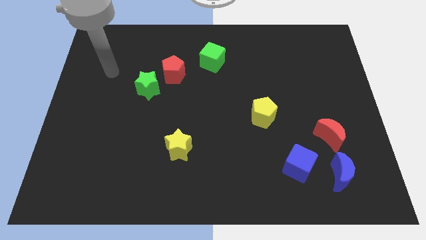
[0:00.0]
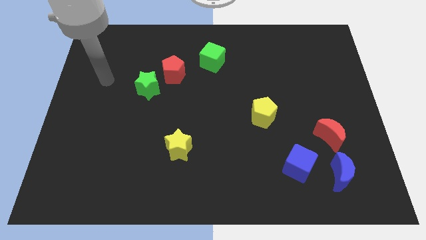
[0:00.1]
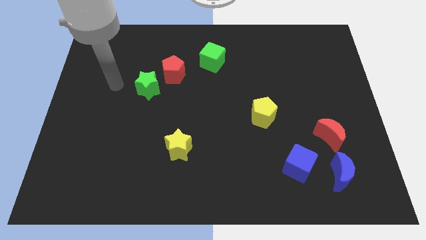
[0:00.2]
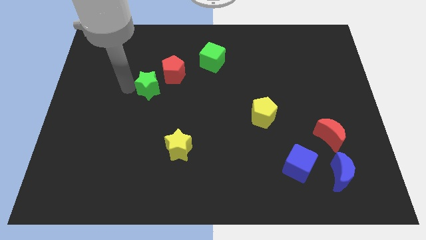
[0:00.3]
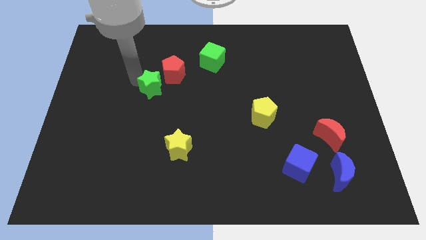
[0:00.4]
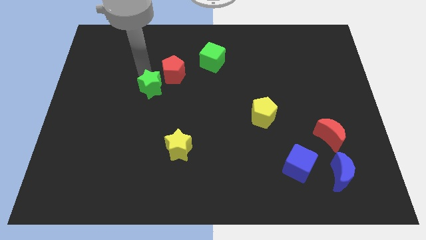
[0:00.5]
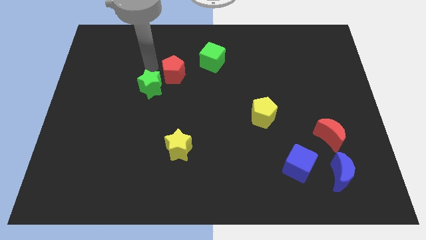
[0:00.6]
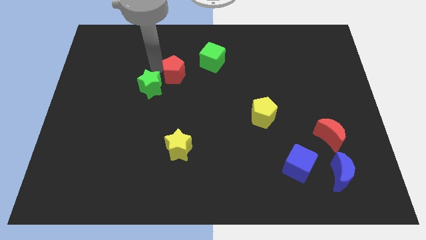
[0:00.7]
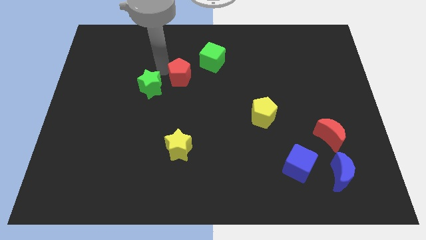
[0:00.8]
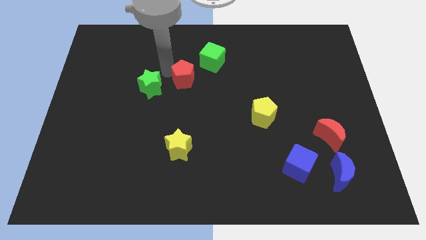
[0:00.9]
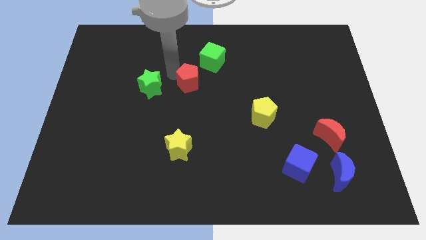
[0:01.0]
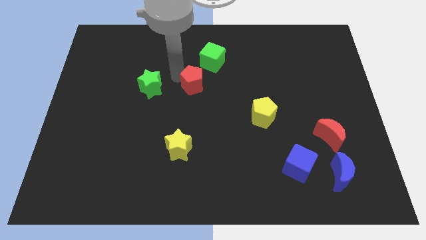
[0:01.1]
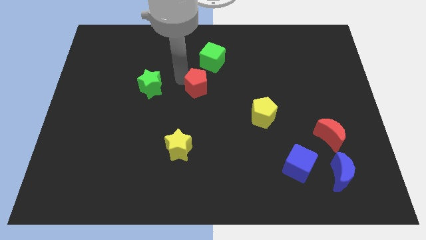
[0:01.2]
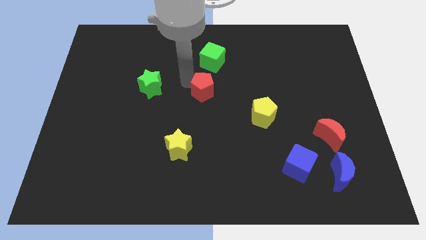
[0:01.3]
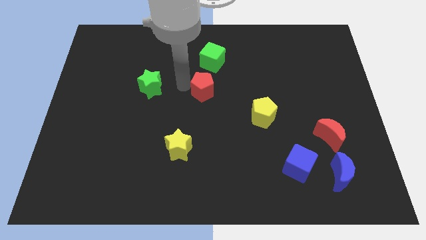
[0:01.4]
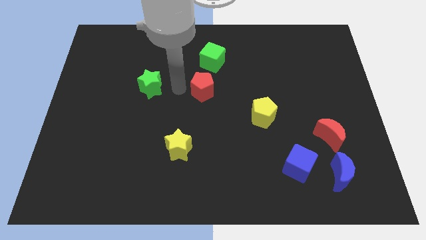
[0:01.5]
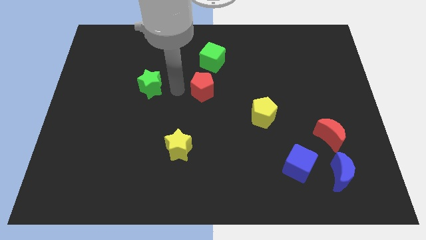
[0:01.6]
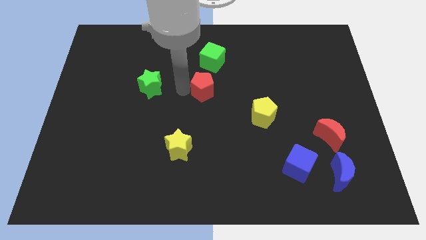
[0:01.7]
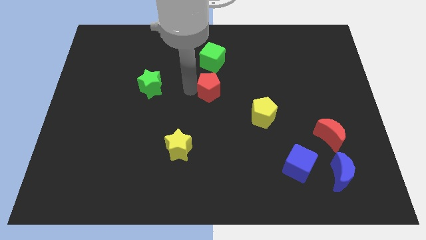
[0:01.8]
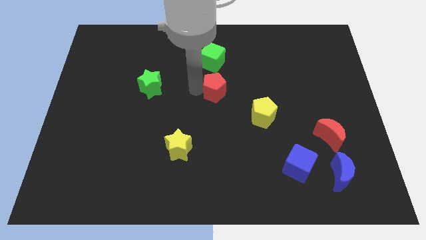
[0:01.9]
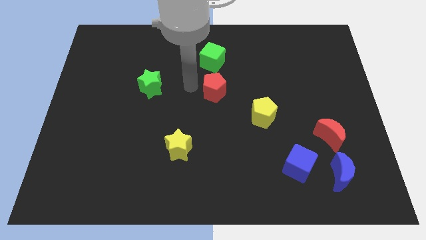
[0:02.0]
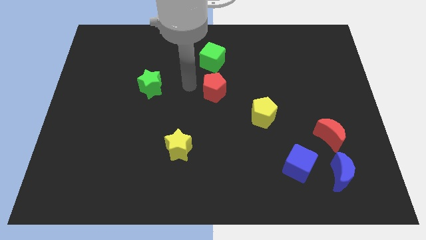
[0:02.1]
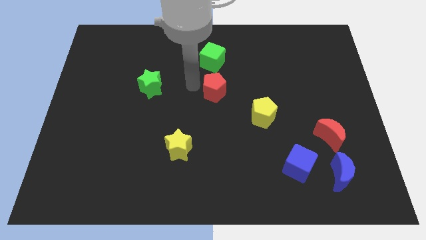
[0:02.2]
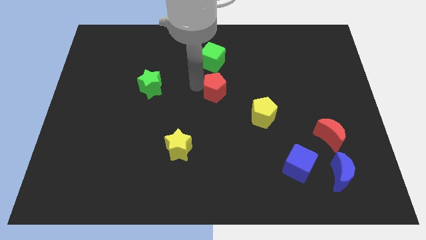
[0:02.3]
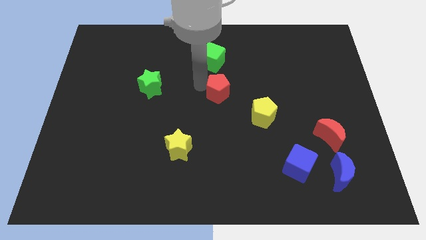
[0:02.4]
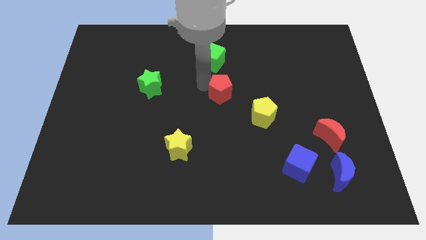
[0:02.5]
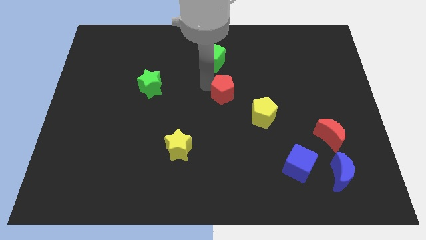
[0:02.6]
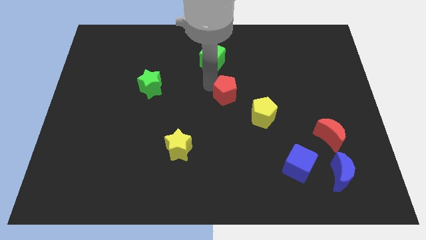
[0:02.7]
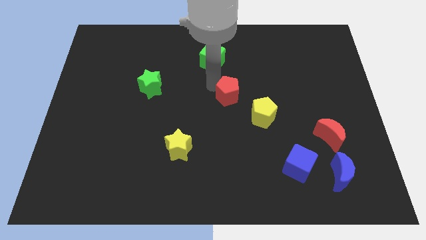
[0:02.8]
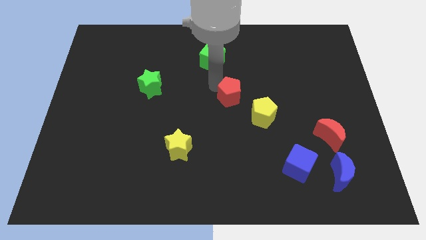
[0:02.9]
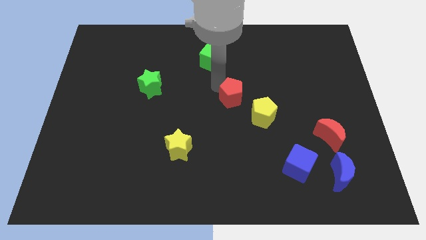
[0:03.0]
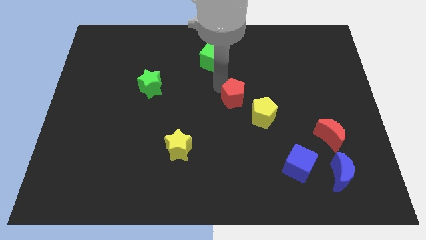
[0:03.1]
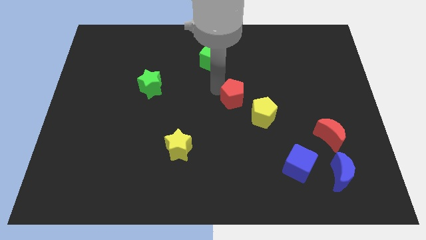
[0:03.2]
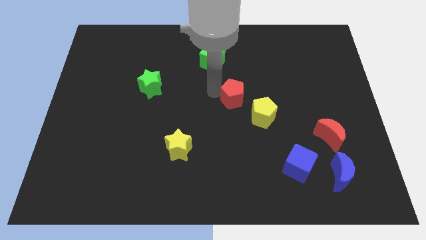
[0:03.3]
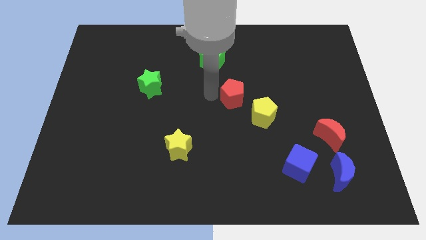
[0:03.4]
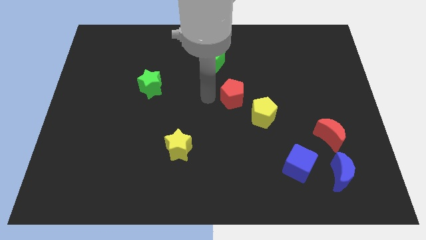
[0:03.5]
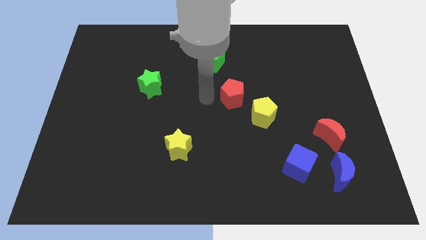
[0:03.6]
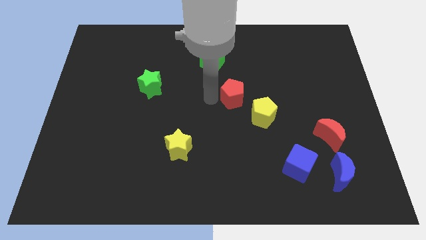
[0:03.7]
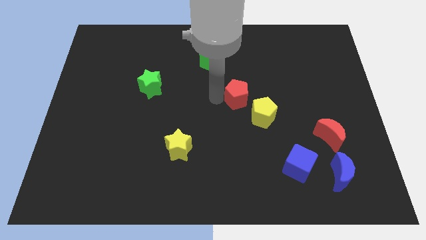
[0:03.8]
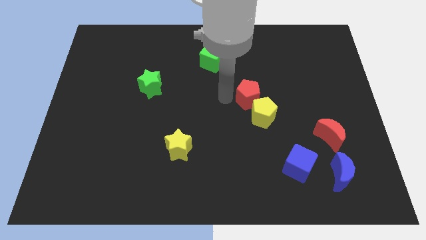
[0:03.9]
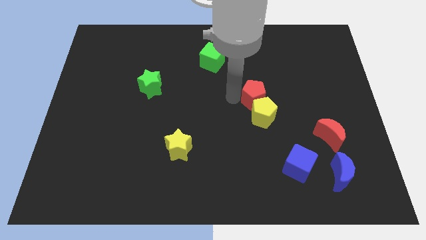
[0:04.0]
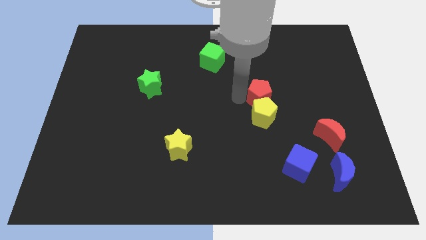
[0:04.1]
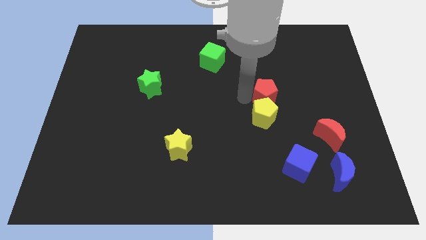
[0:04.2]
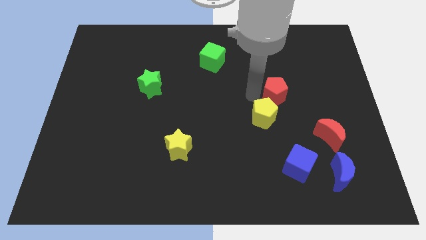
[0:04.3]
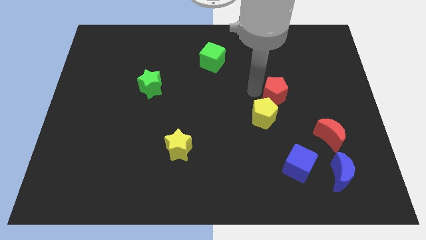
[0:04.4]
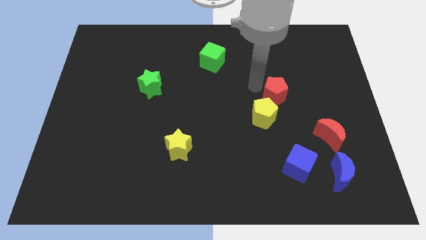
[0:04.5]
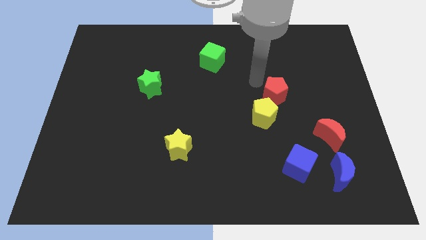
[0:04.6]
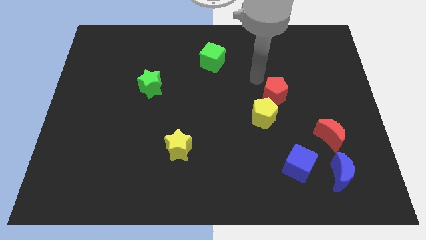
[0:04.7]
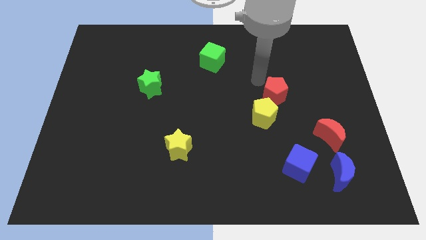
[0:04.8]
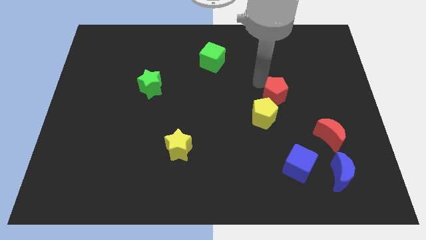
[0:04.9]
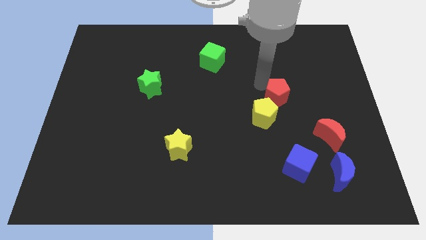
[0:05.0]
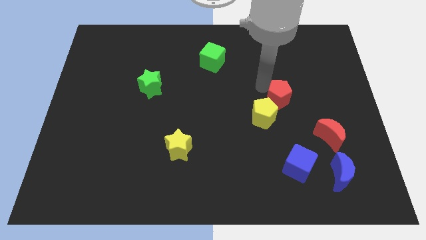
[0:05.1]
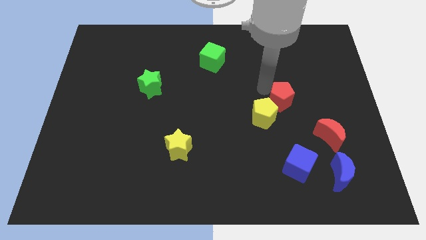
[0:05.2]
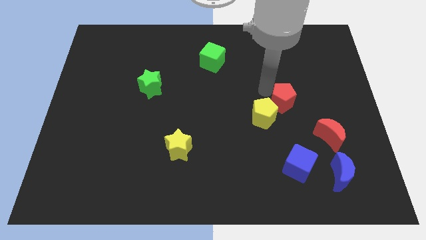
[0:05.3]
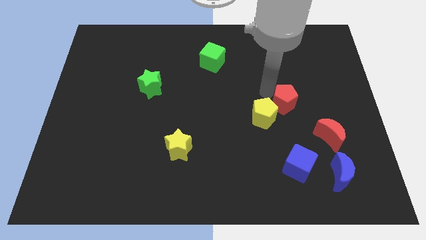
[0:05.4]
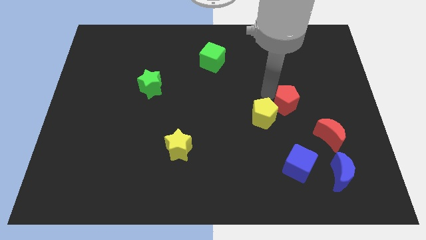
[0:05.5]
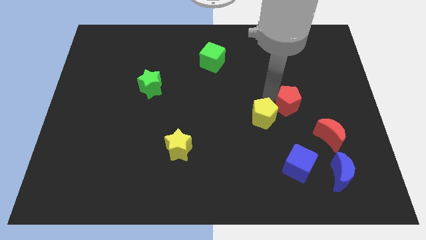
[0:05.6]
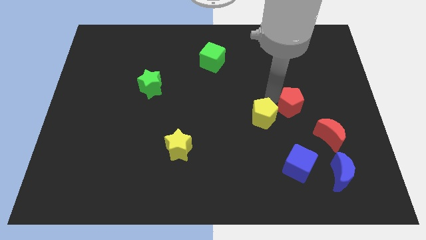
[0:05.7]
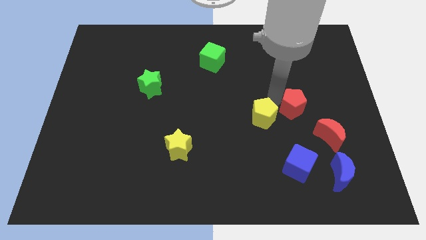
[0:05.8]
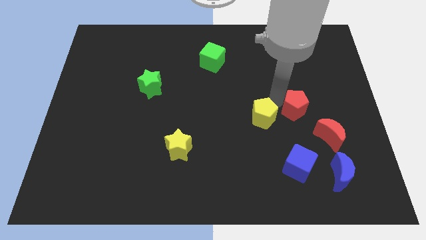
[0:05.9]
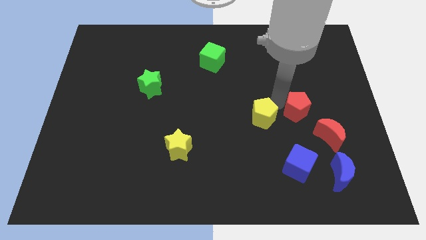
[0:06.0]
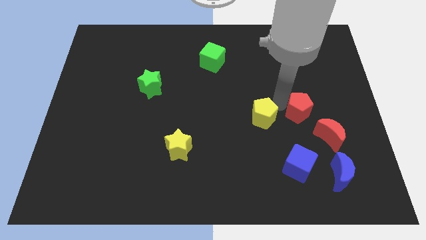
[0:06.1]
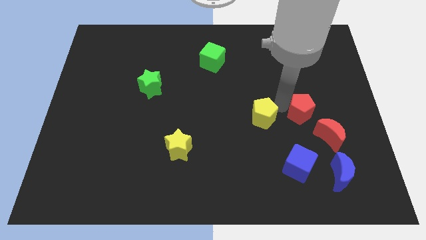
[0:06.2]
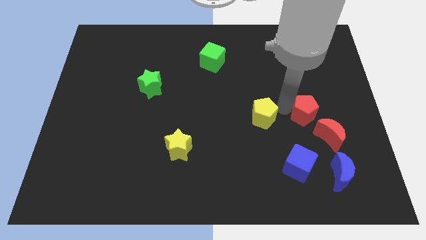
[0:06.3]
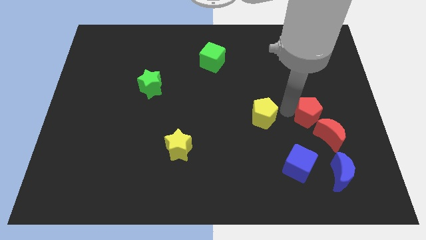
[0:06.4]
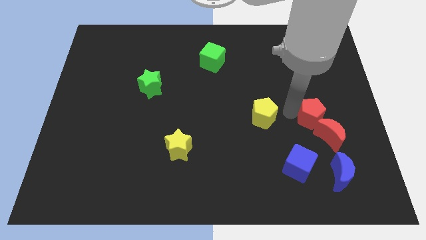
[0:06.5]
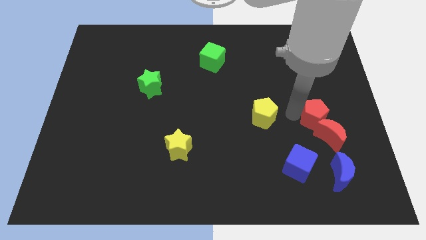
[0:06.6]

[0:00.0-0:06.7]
move the red pentagon towards the red moon

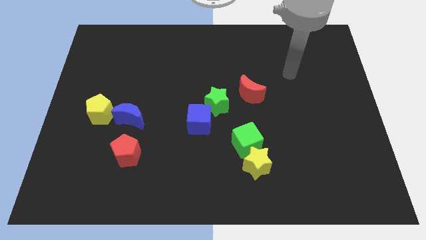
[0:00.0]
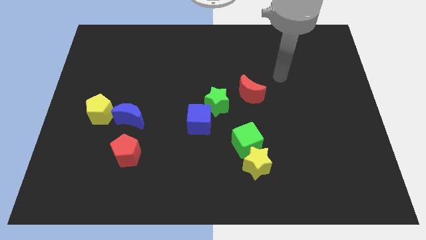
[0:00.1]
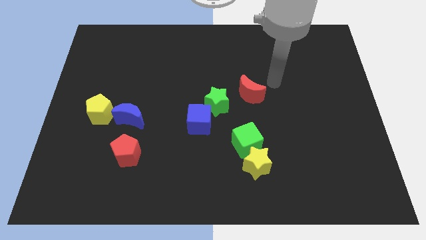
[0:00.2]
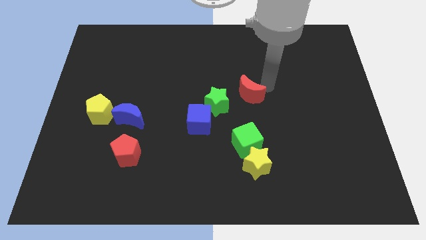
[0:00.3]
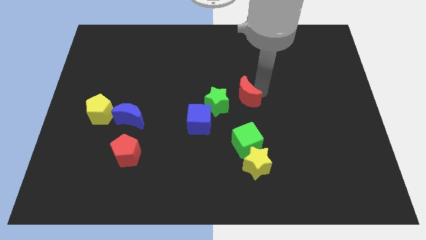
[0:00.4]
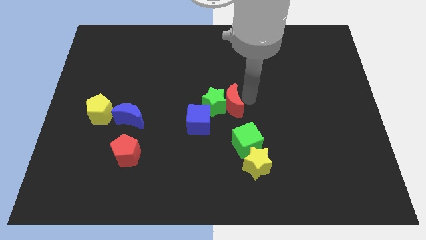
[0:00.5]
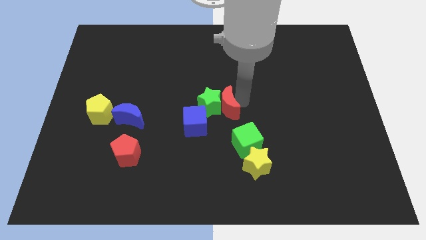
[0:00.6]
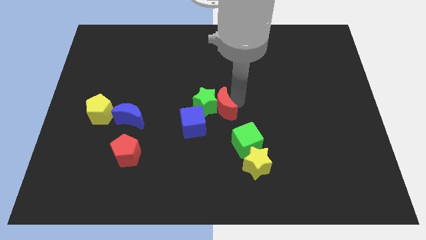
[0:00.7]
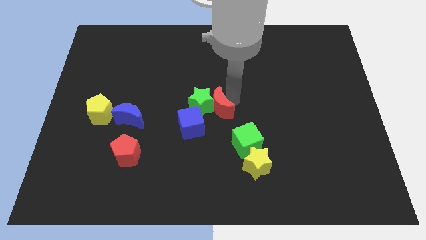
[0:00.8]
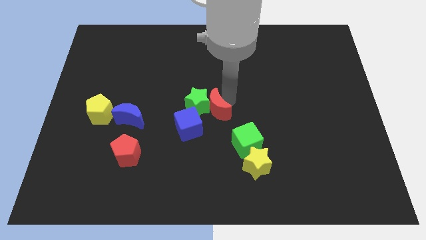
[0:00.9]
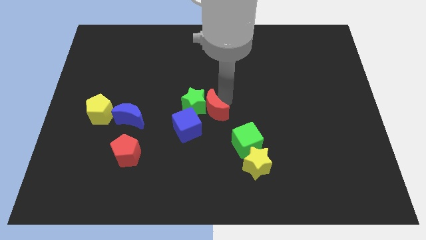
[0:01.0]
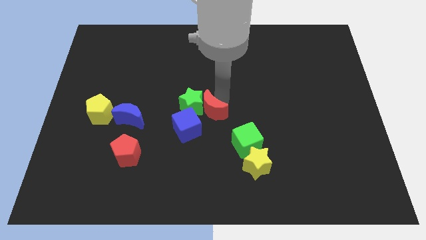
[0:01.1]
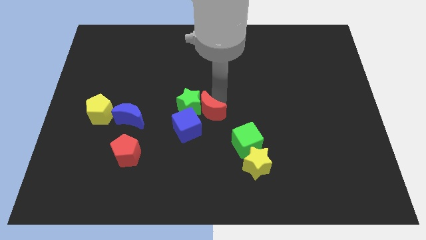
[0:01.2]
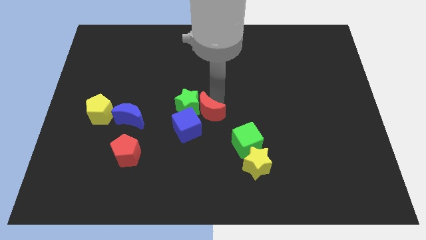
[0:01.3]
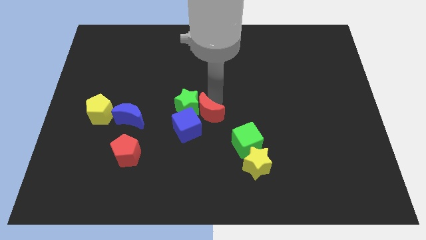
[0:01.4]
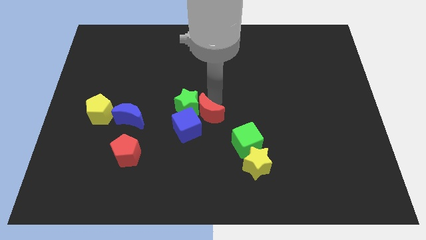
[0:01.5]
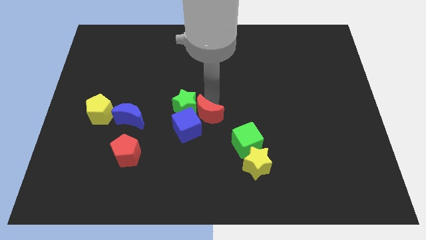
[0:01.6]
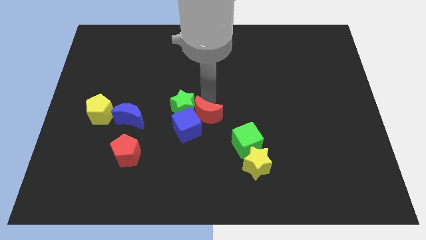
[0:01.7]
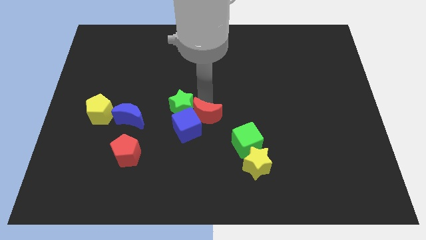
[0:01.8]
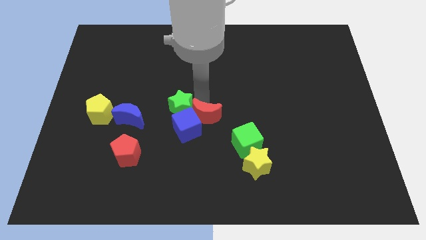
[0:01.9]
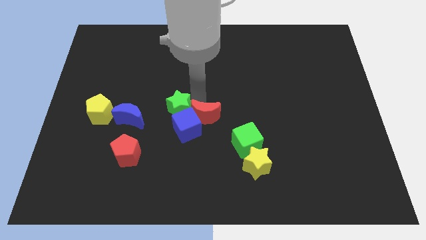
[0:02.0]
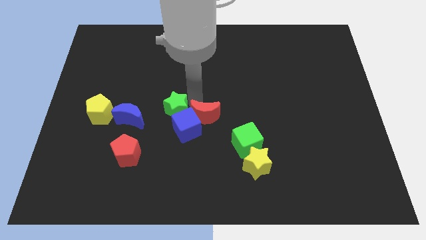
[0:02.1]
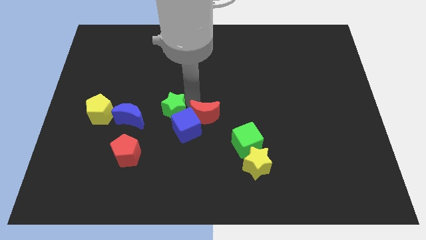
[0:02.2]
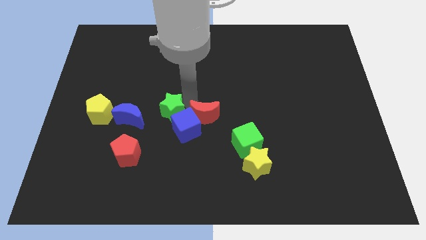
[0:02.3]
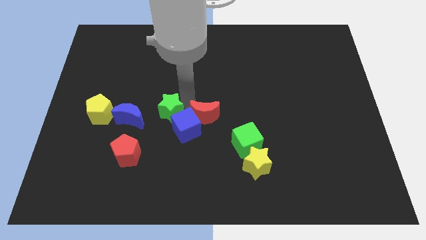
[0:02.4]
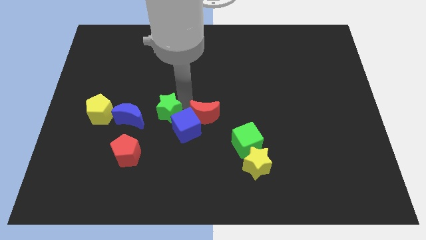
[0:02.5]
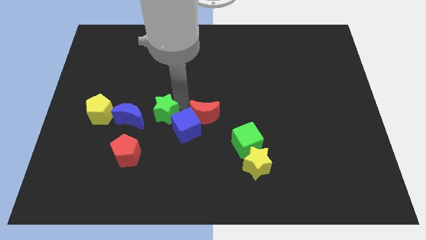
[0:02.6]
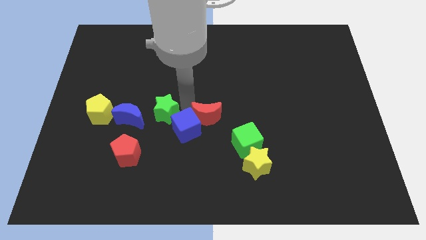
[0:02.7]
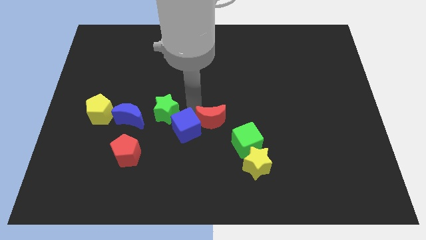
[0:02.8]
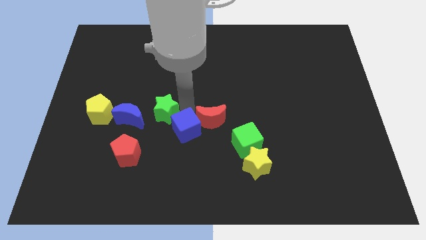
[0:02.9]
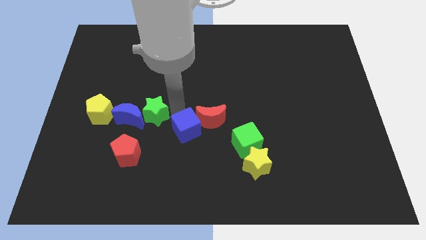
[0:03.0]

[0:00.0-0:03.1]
push the green star to the blue moon
